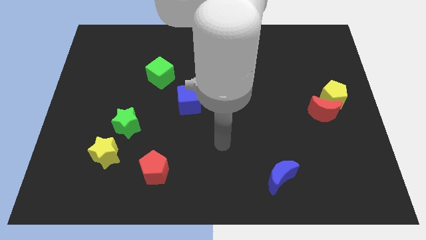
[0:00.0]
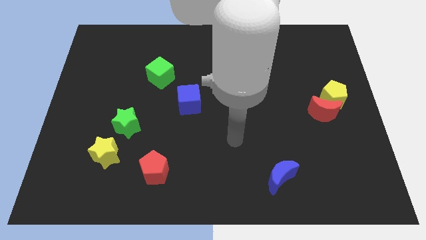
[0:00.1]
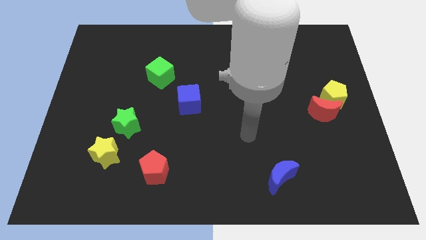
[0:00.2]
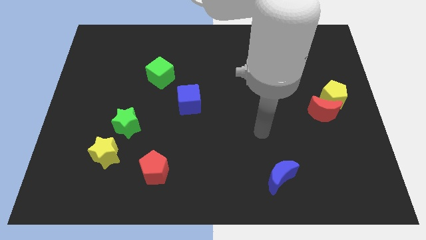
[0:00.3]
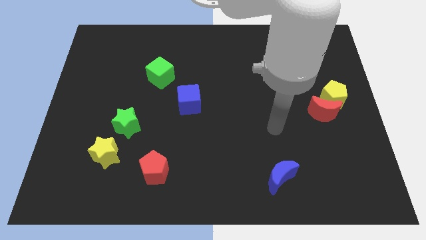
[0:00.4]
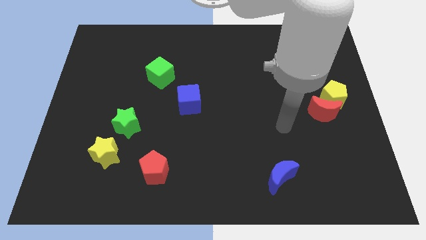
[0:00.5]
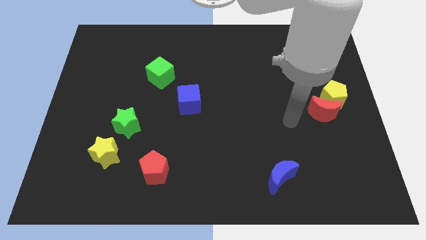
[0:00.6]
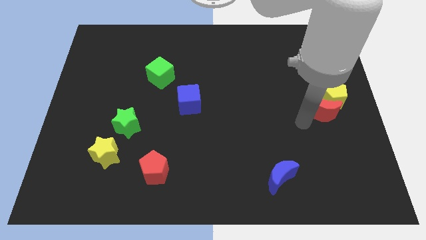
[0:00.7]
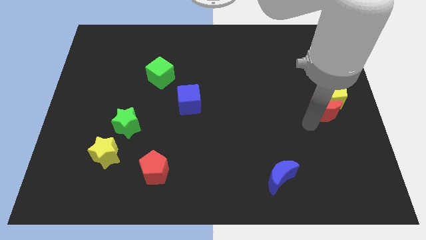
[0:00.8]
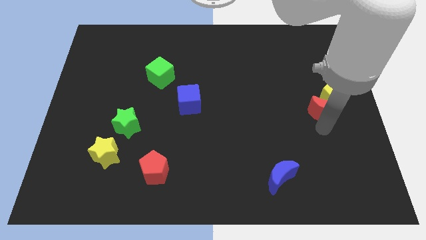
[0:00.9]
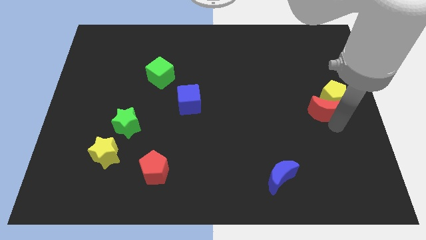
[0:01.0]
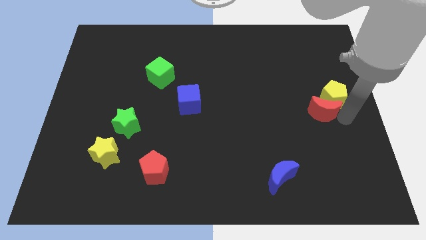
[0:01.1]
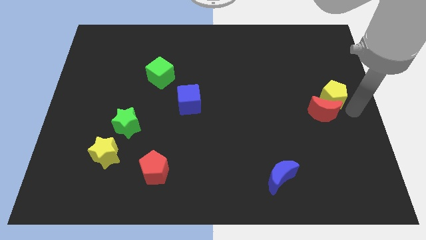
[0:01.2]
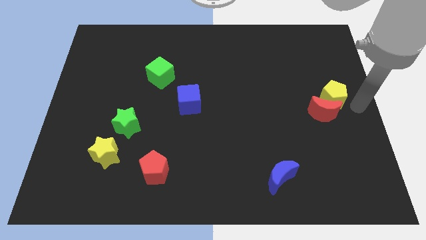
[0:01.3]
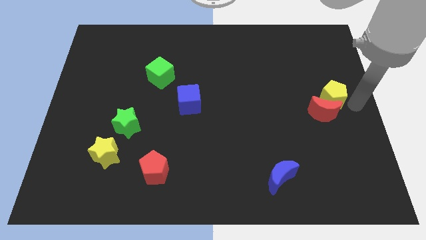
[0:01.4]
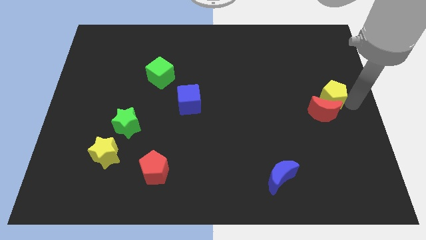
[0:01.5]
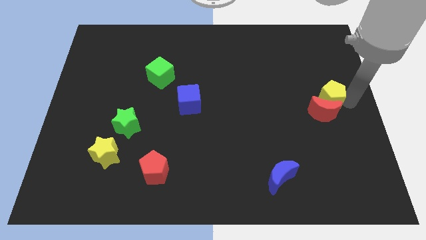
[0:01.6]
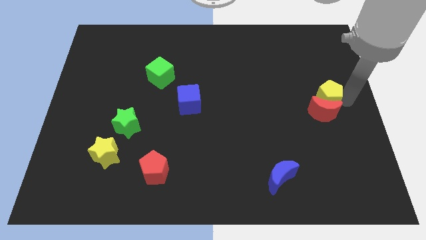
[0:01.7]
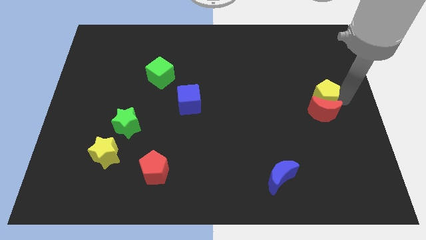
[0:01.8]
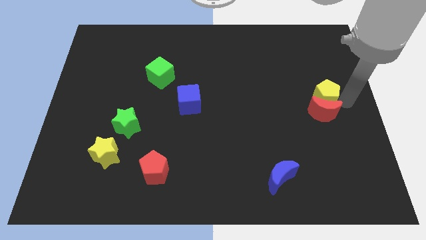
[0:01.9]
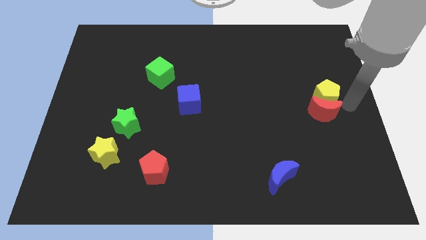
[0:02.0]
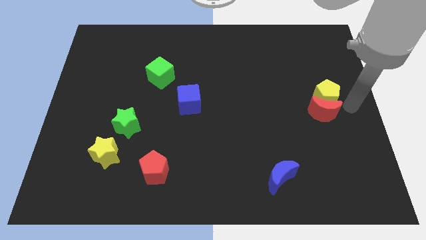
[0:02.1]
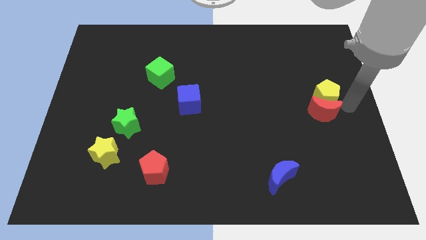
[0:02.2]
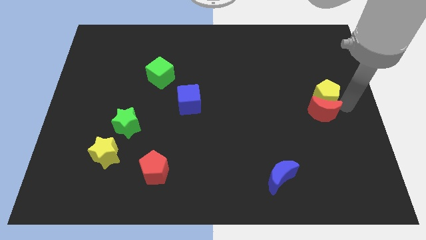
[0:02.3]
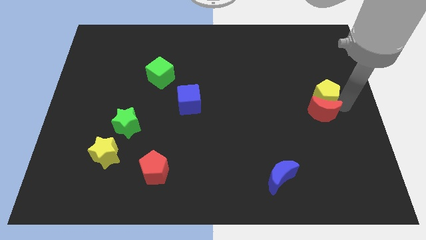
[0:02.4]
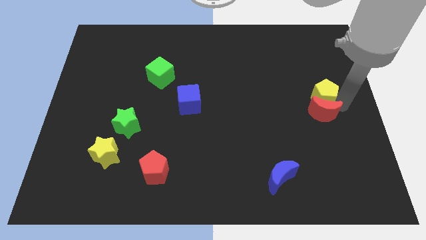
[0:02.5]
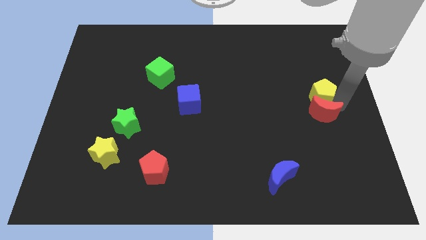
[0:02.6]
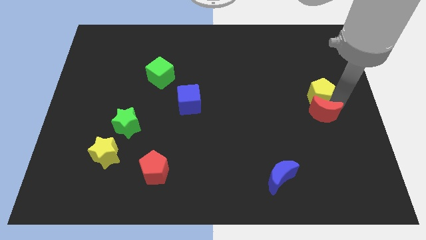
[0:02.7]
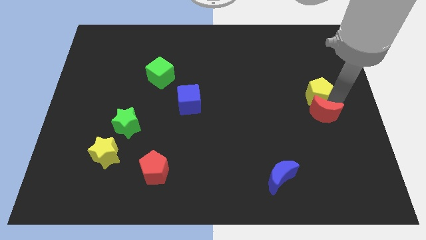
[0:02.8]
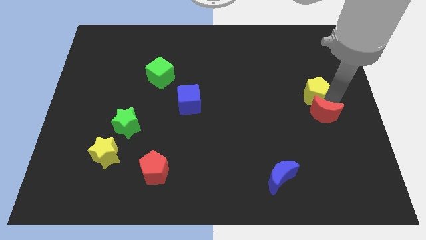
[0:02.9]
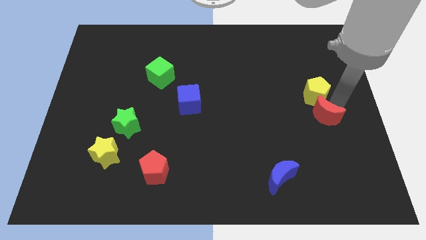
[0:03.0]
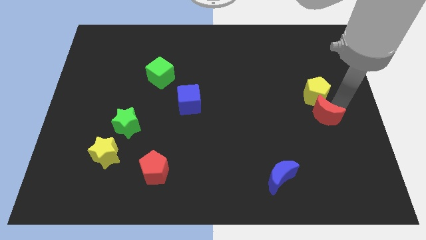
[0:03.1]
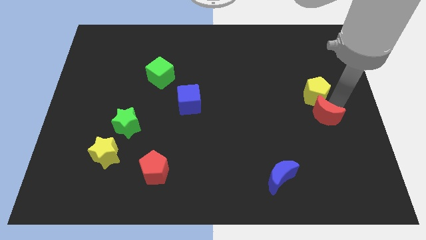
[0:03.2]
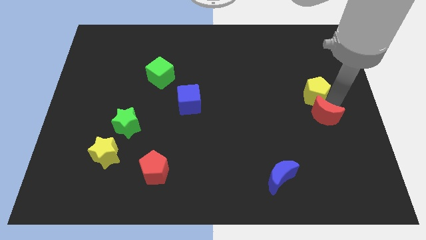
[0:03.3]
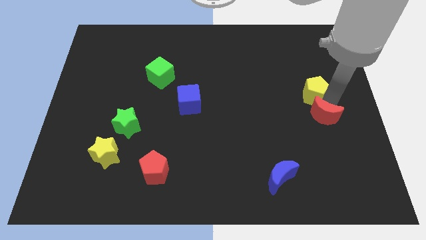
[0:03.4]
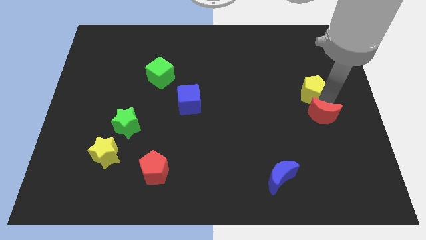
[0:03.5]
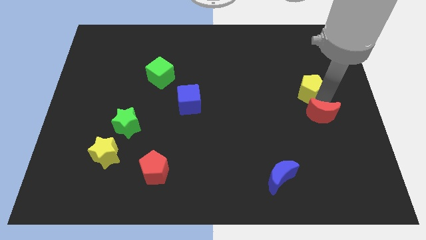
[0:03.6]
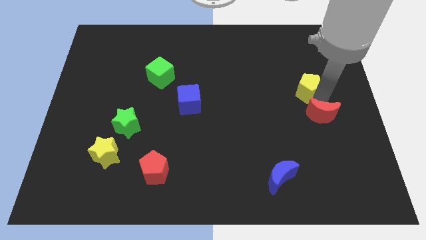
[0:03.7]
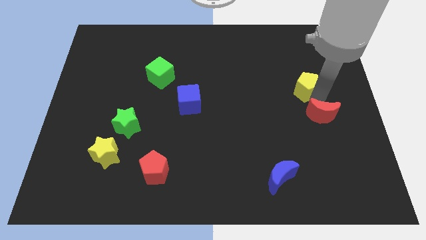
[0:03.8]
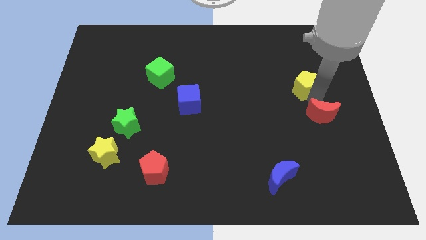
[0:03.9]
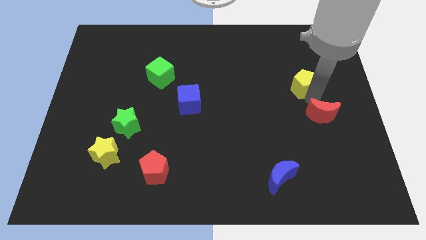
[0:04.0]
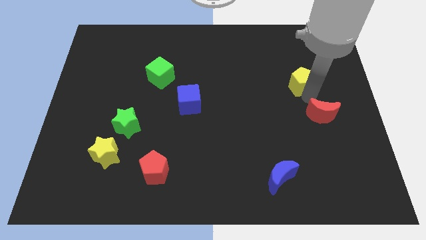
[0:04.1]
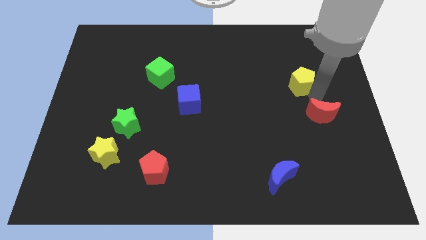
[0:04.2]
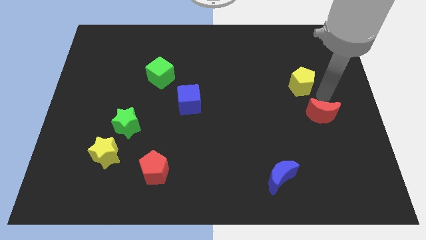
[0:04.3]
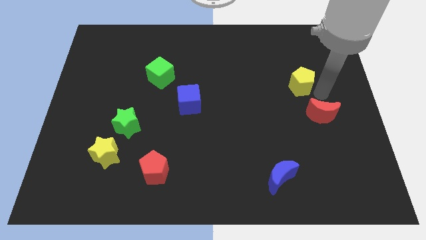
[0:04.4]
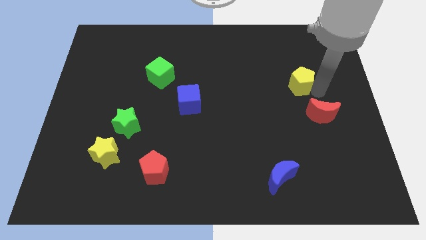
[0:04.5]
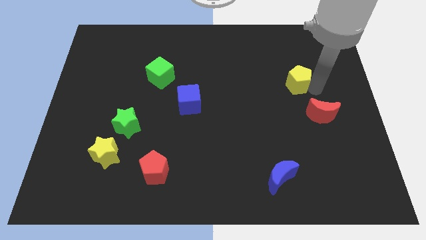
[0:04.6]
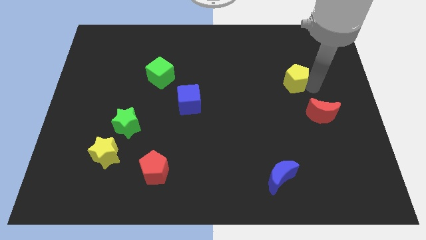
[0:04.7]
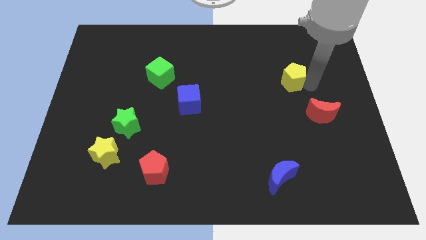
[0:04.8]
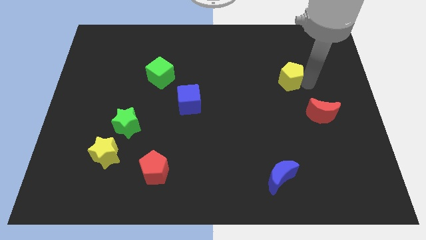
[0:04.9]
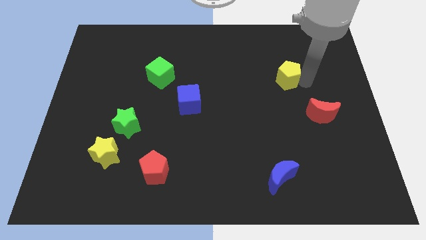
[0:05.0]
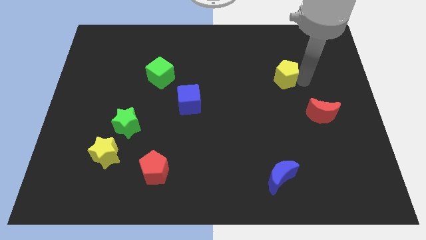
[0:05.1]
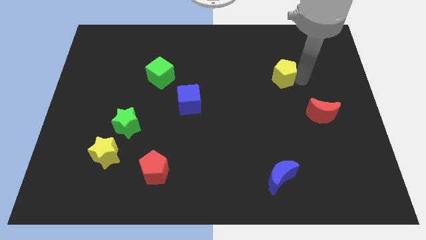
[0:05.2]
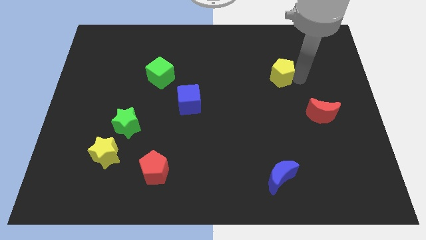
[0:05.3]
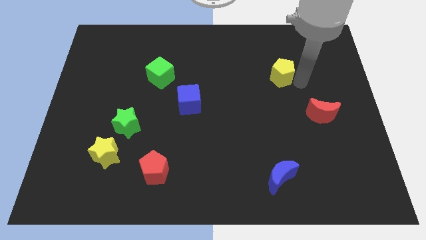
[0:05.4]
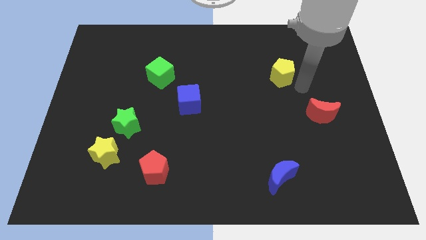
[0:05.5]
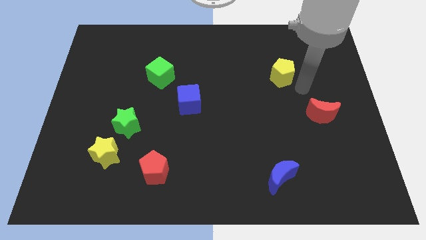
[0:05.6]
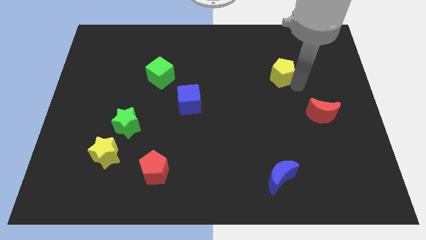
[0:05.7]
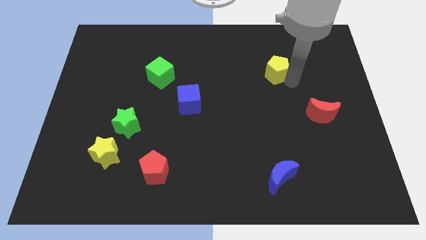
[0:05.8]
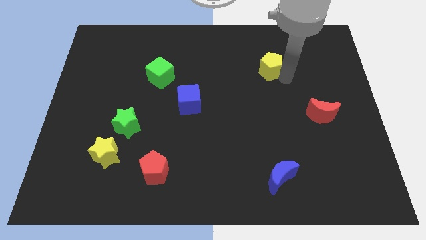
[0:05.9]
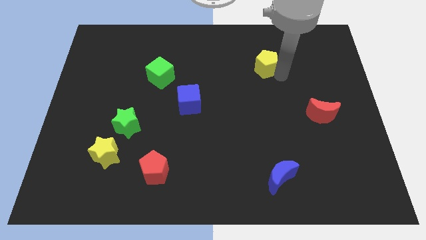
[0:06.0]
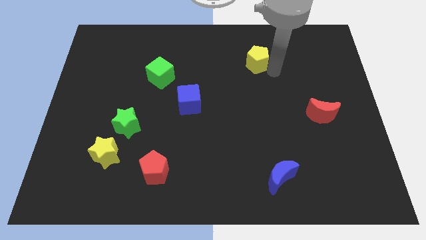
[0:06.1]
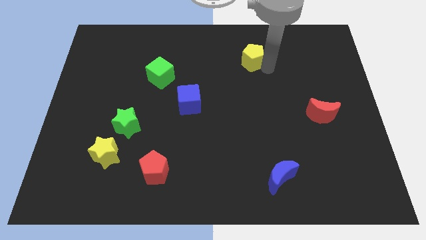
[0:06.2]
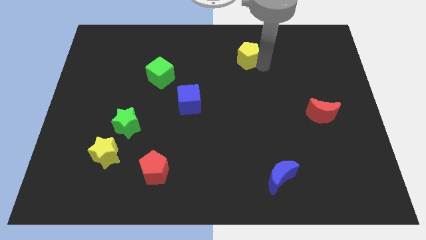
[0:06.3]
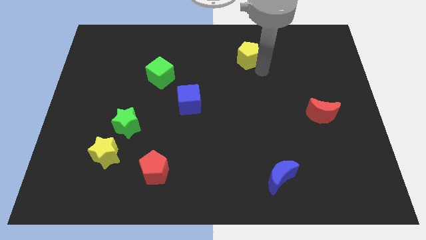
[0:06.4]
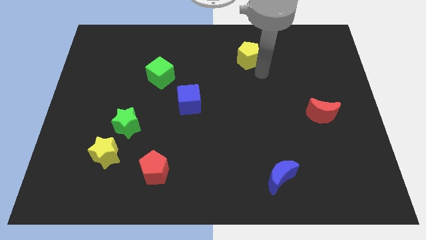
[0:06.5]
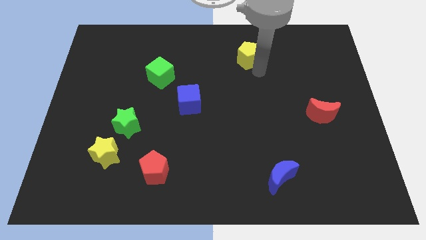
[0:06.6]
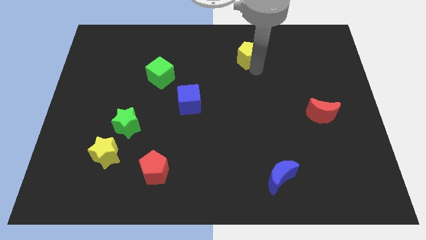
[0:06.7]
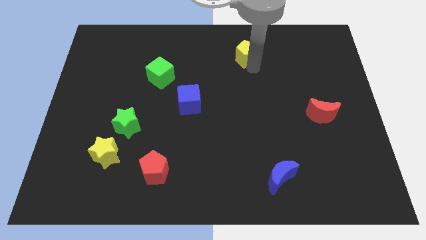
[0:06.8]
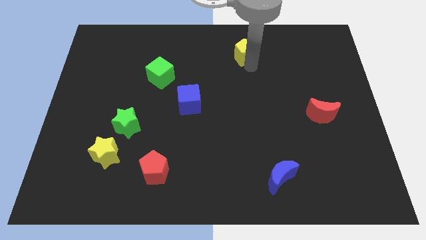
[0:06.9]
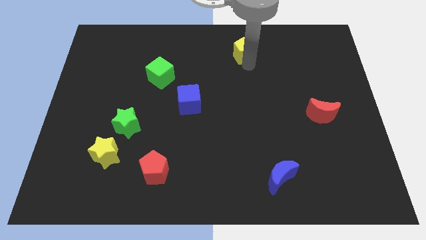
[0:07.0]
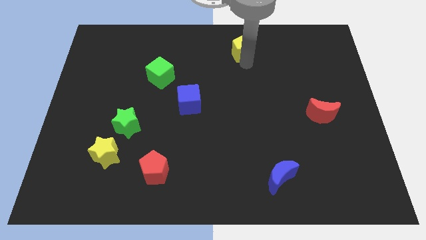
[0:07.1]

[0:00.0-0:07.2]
push the yellow pentagon to the towards your base

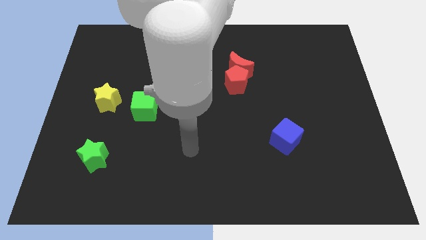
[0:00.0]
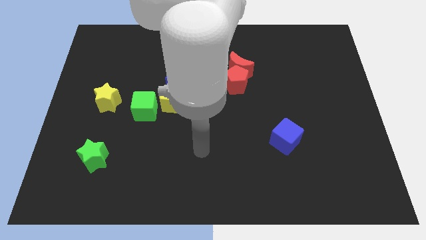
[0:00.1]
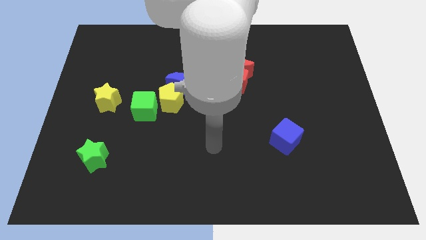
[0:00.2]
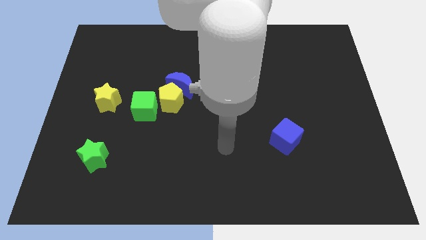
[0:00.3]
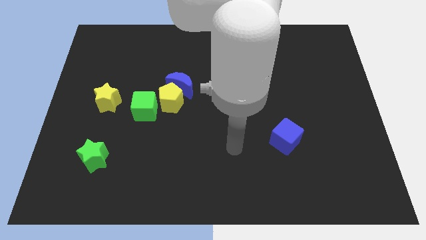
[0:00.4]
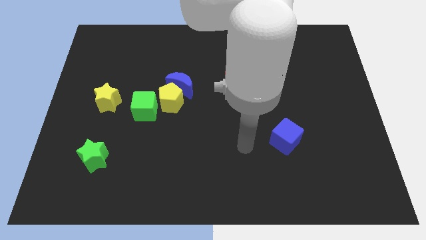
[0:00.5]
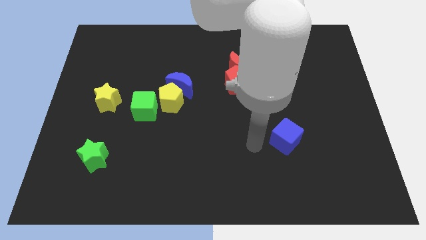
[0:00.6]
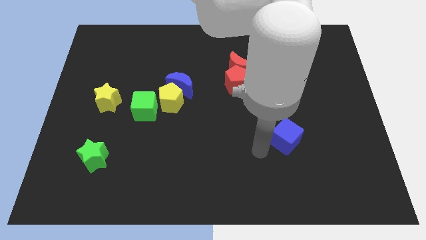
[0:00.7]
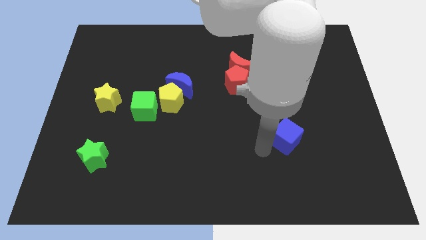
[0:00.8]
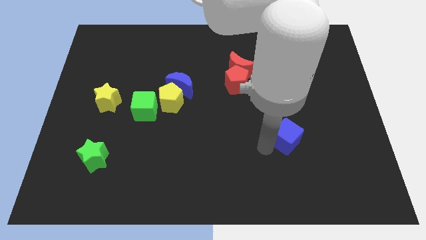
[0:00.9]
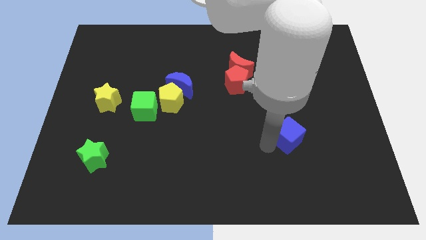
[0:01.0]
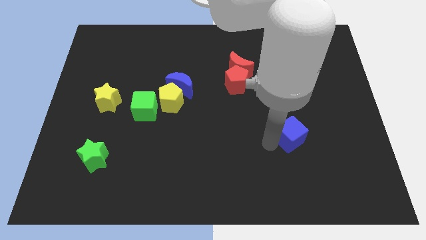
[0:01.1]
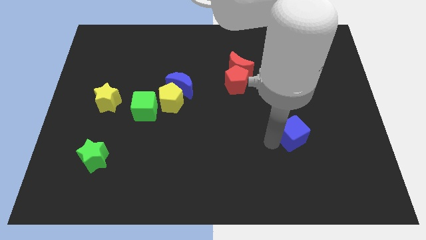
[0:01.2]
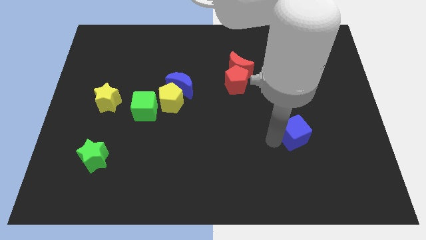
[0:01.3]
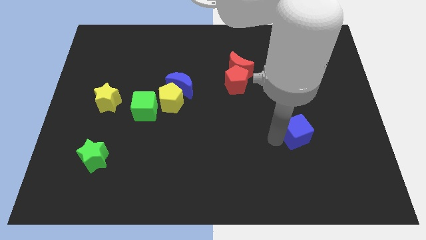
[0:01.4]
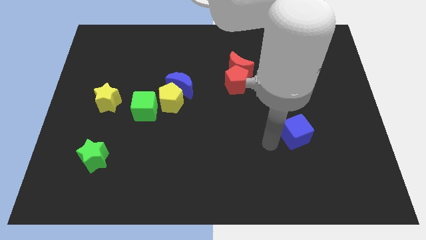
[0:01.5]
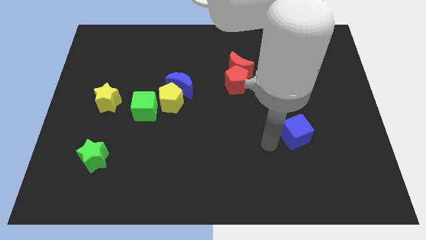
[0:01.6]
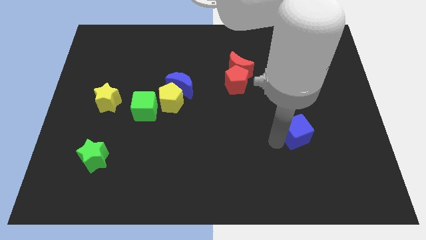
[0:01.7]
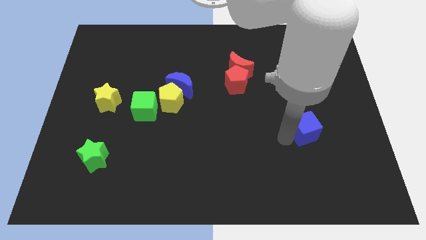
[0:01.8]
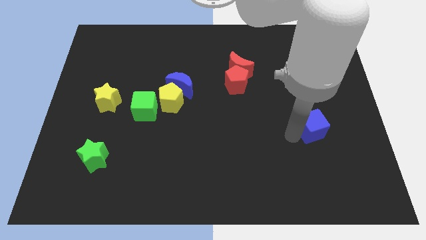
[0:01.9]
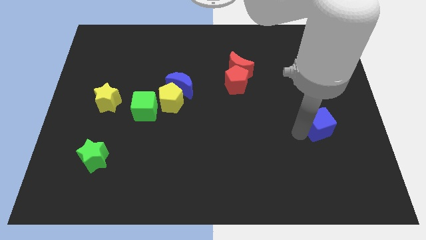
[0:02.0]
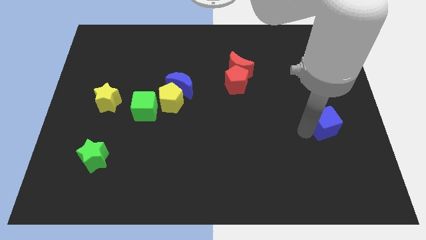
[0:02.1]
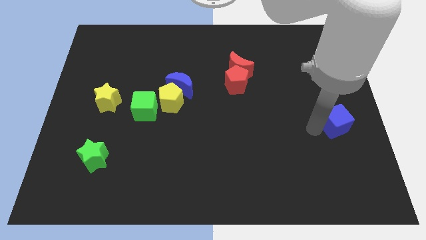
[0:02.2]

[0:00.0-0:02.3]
push the blue cube to the right side
